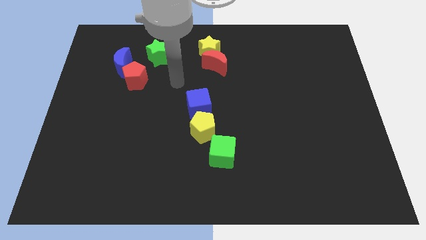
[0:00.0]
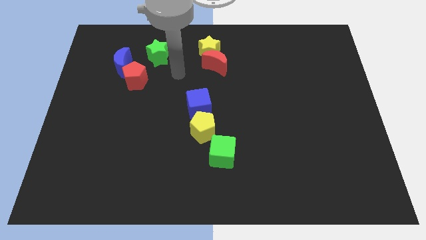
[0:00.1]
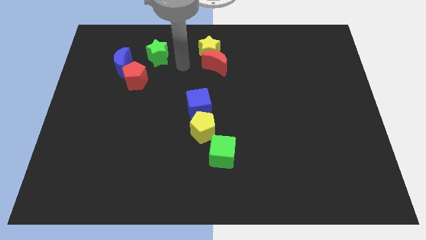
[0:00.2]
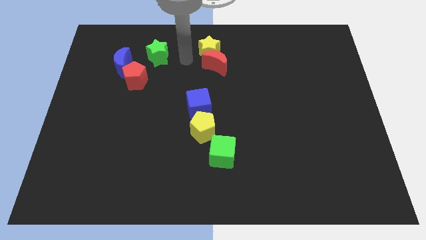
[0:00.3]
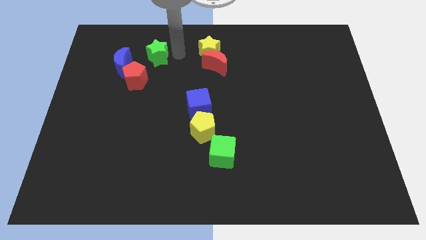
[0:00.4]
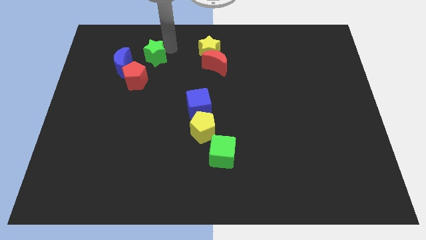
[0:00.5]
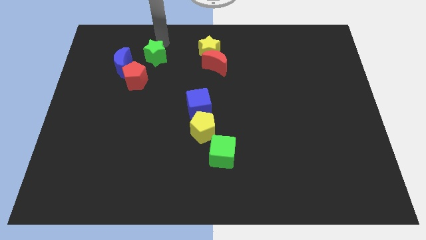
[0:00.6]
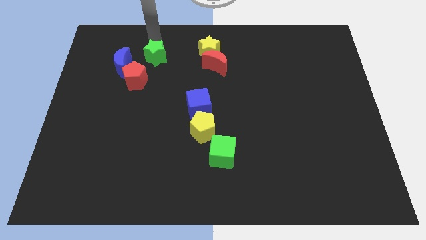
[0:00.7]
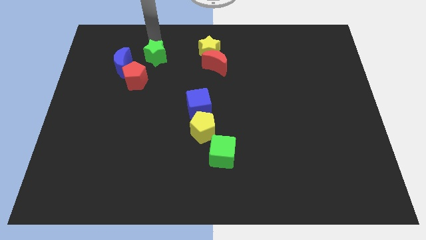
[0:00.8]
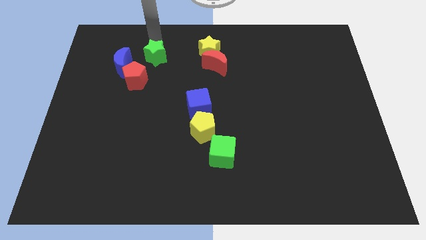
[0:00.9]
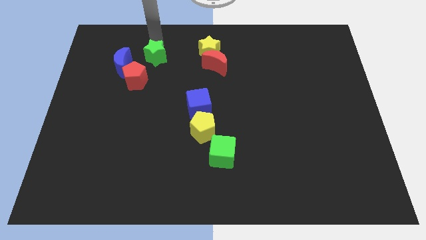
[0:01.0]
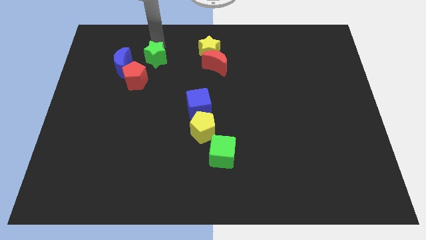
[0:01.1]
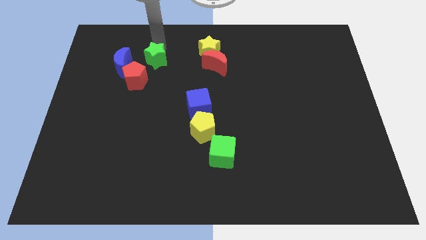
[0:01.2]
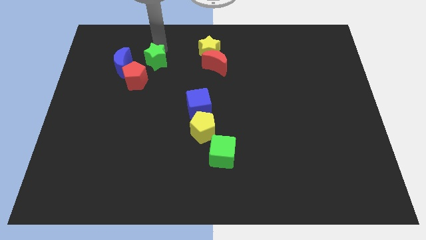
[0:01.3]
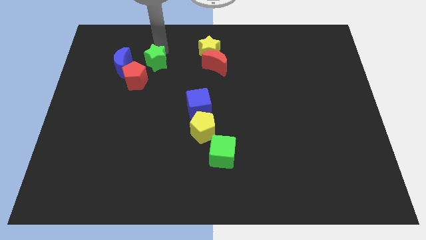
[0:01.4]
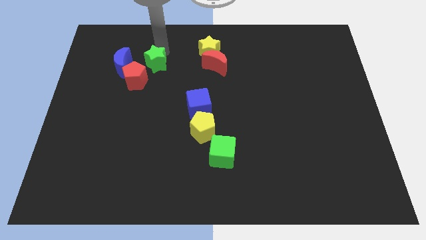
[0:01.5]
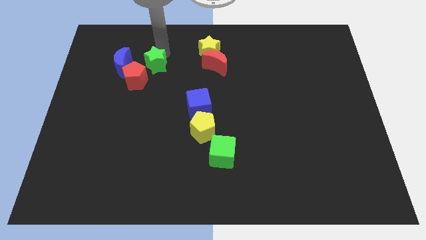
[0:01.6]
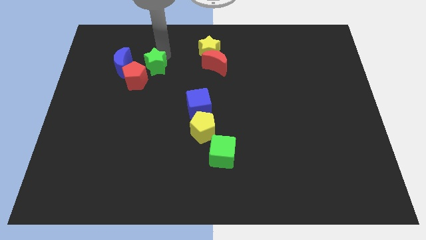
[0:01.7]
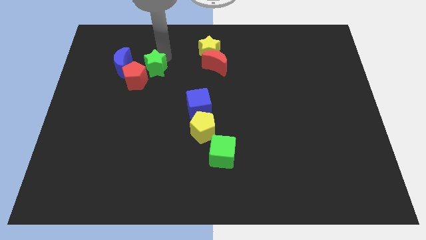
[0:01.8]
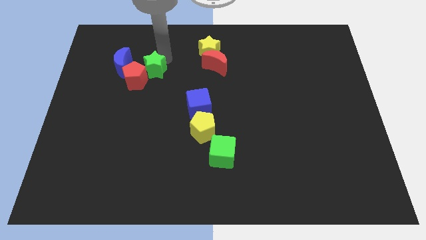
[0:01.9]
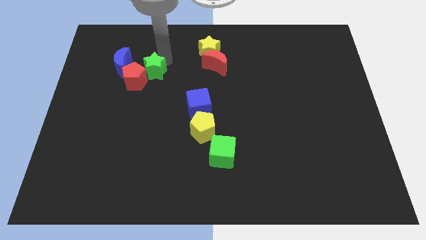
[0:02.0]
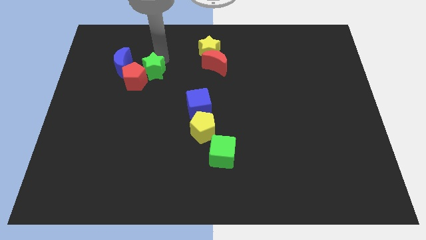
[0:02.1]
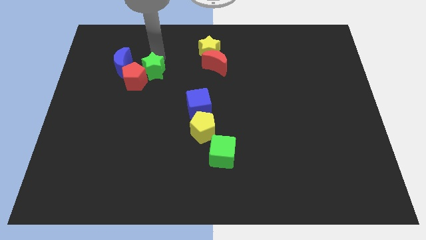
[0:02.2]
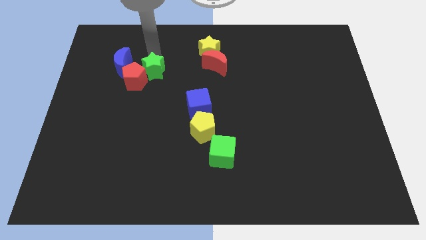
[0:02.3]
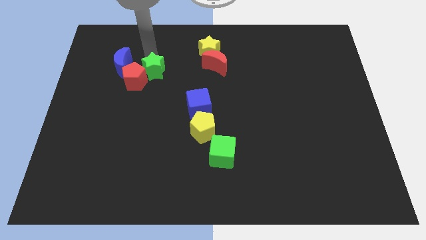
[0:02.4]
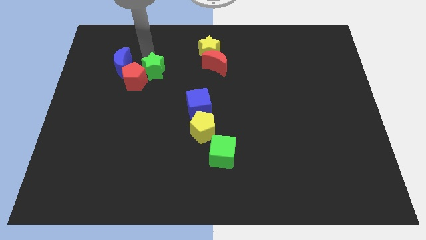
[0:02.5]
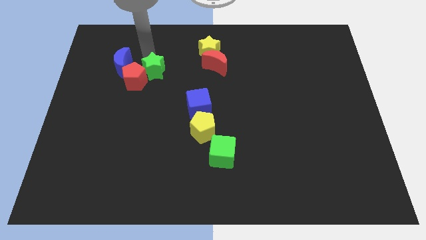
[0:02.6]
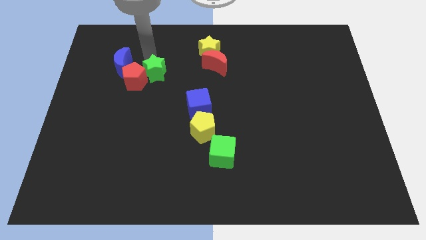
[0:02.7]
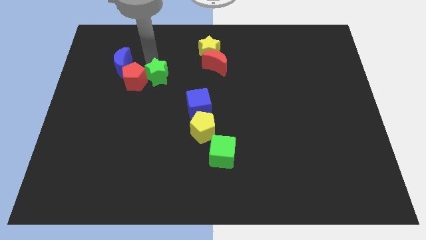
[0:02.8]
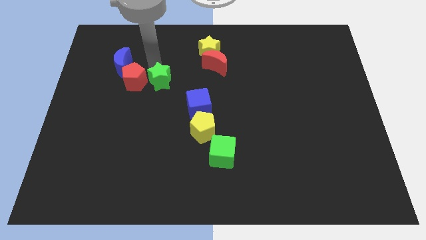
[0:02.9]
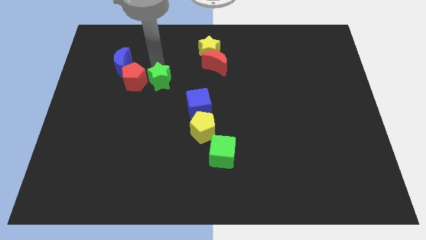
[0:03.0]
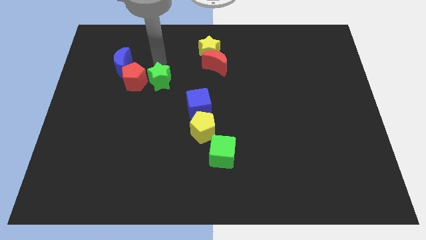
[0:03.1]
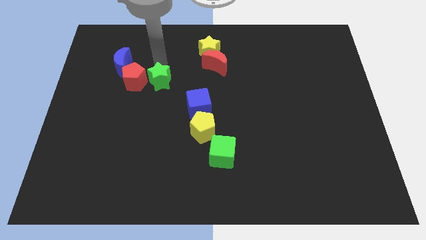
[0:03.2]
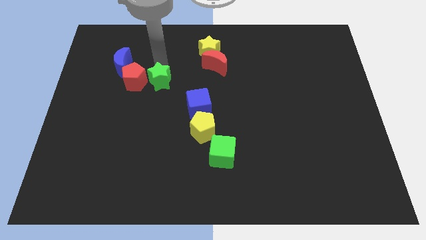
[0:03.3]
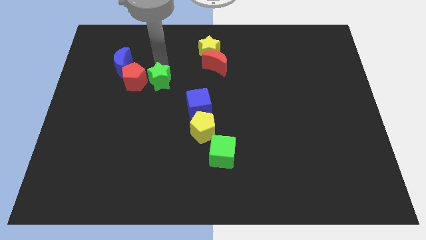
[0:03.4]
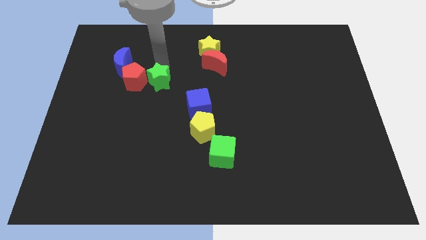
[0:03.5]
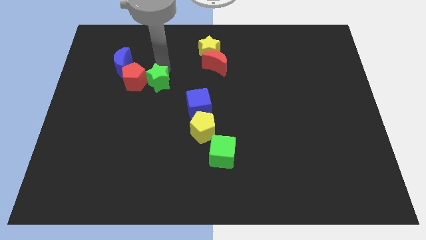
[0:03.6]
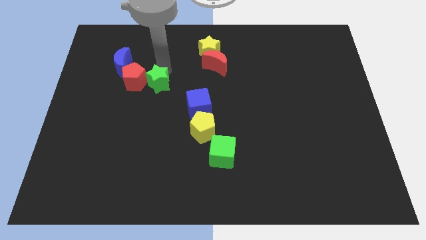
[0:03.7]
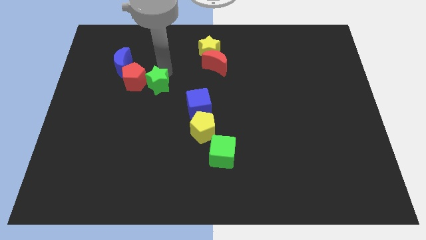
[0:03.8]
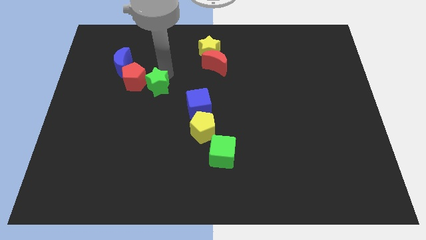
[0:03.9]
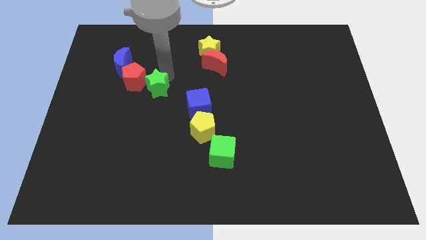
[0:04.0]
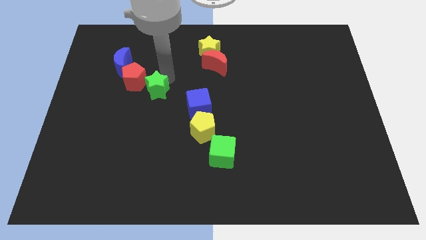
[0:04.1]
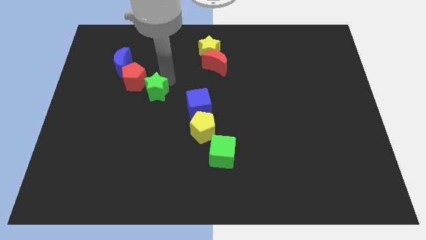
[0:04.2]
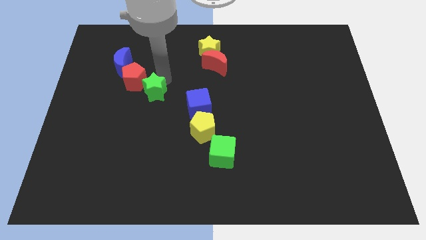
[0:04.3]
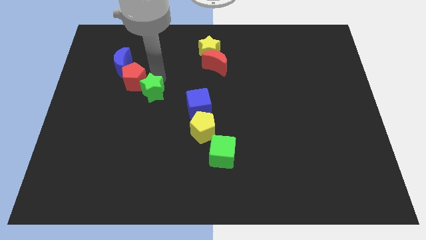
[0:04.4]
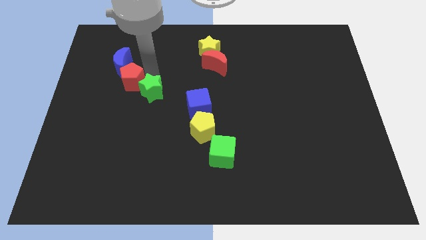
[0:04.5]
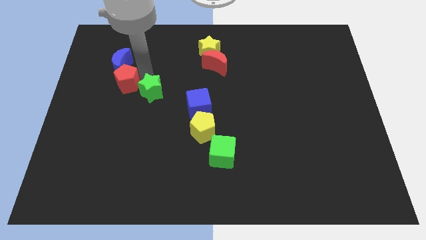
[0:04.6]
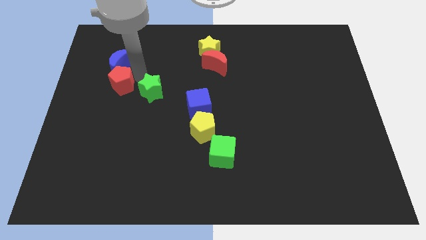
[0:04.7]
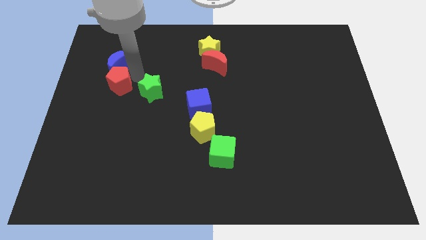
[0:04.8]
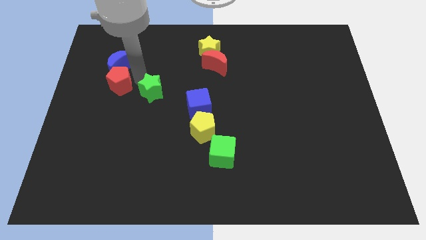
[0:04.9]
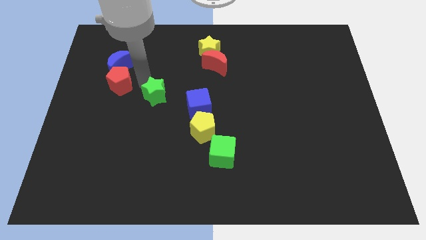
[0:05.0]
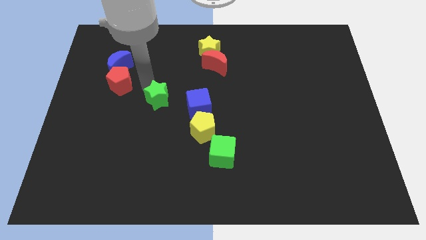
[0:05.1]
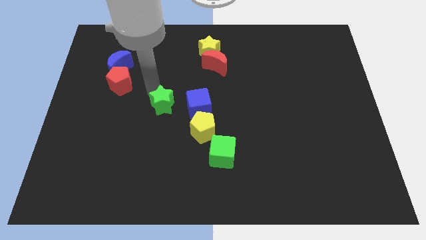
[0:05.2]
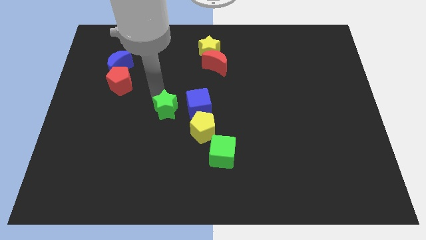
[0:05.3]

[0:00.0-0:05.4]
put the green star to the bottom left of the blue cube

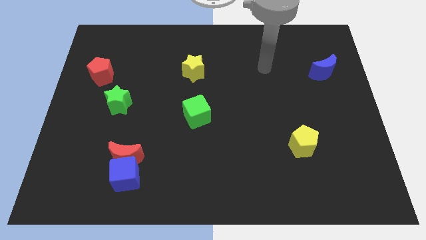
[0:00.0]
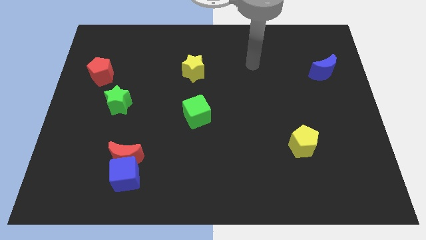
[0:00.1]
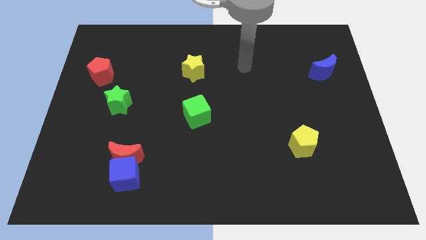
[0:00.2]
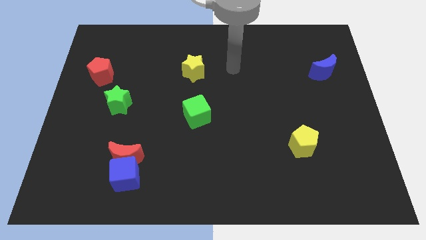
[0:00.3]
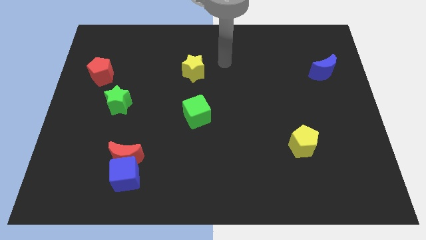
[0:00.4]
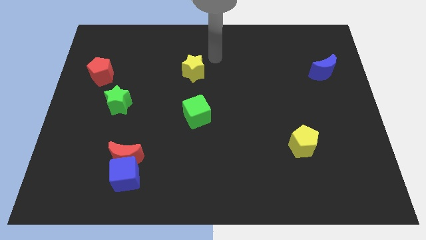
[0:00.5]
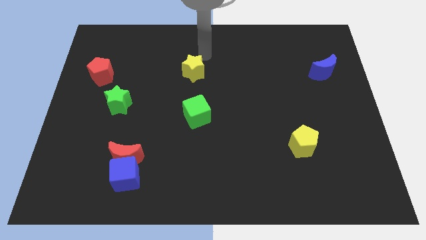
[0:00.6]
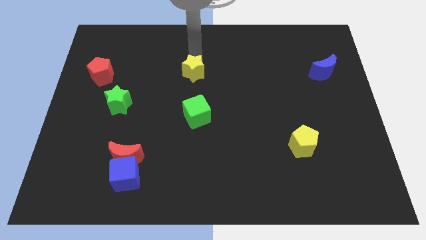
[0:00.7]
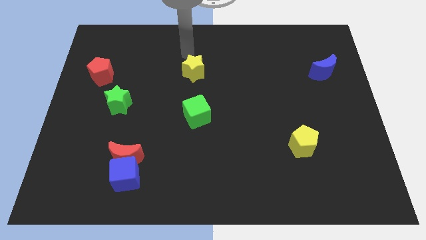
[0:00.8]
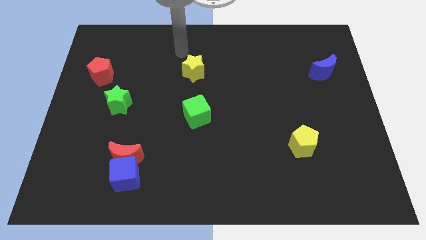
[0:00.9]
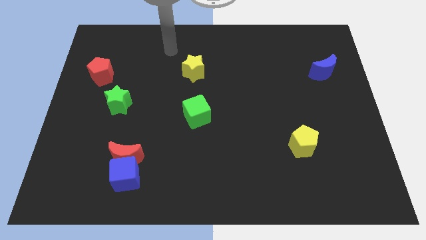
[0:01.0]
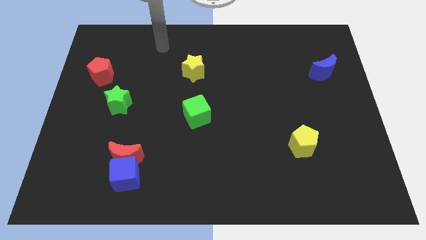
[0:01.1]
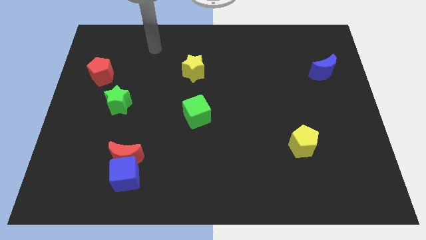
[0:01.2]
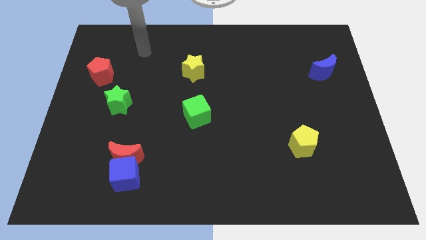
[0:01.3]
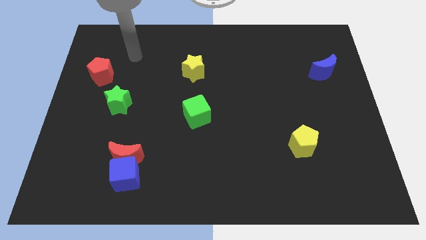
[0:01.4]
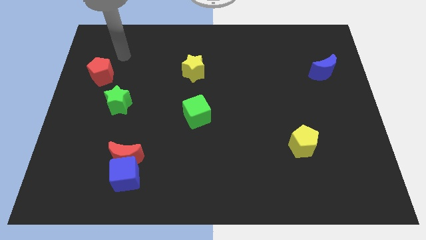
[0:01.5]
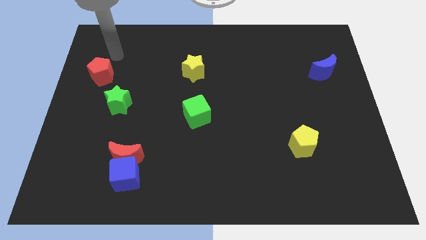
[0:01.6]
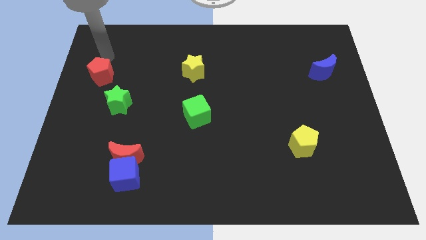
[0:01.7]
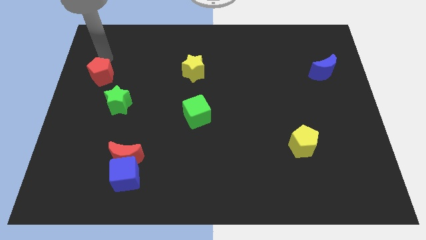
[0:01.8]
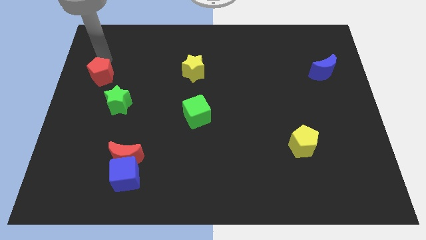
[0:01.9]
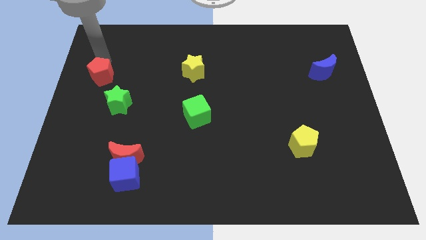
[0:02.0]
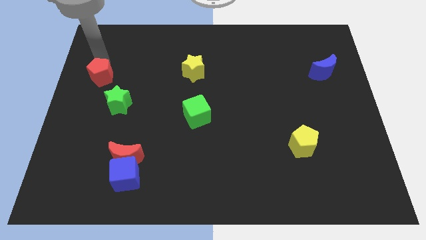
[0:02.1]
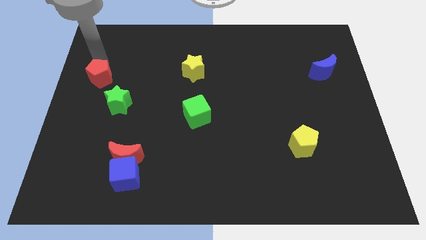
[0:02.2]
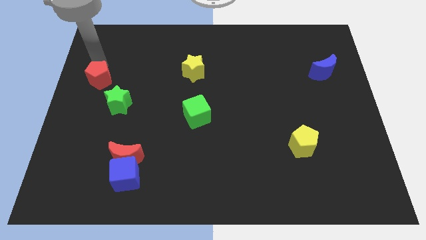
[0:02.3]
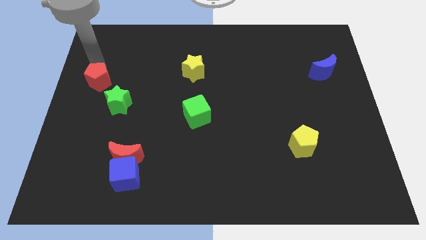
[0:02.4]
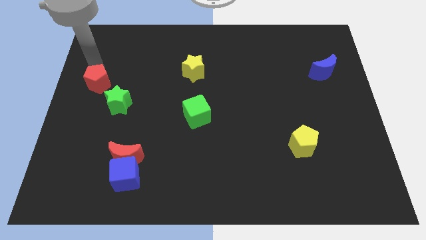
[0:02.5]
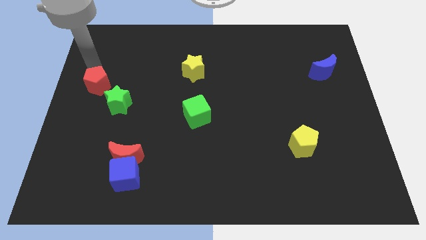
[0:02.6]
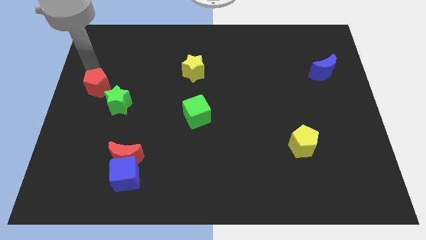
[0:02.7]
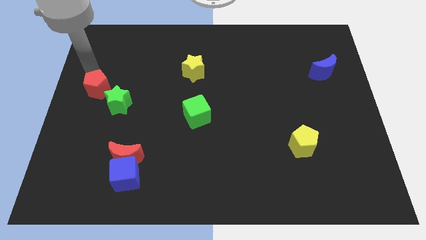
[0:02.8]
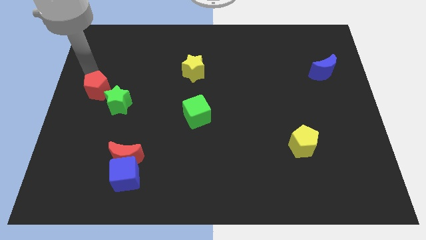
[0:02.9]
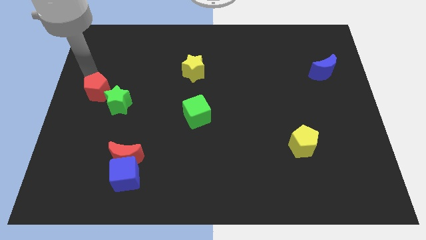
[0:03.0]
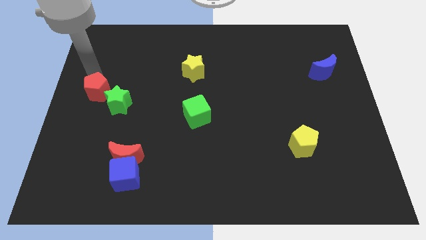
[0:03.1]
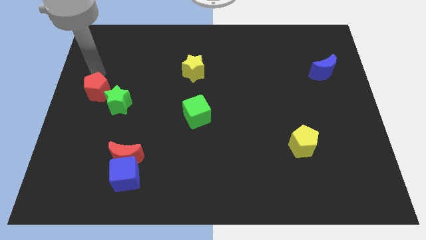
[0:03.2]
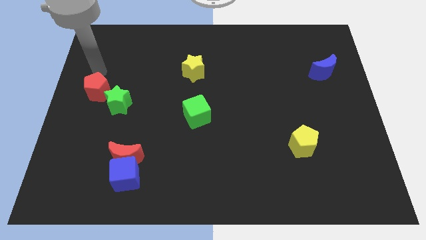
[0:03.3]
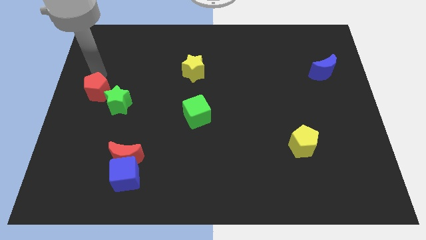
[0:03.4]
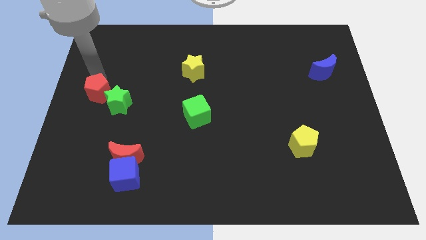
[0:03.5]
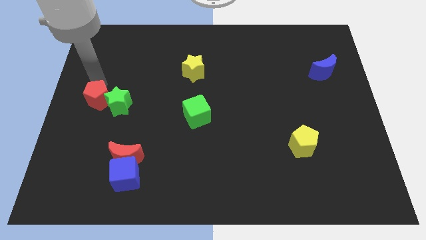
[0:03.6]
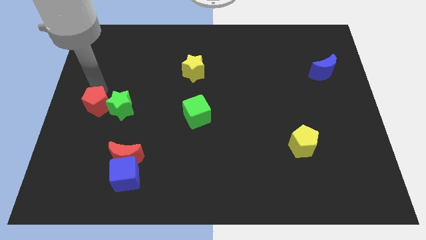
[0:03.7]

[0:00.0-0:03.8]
push the red pentagon to the bottom left side of the green star
